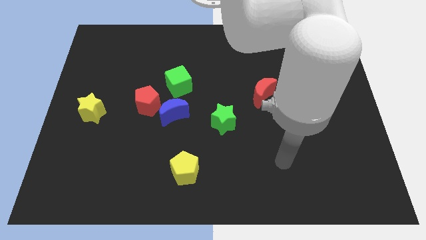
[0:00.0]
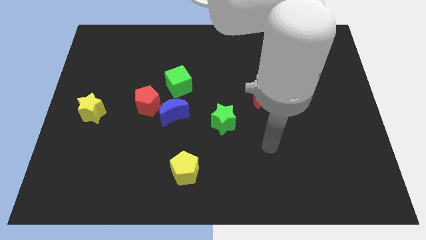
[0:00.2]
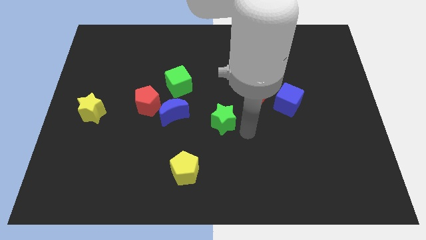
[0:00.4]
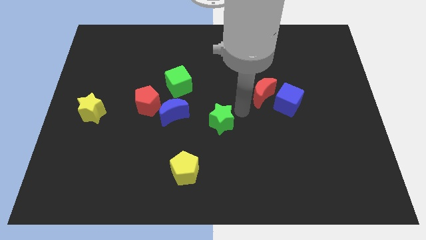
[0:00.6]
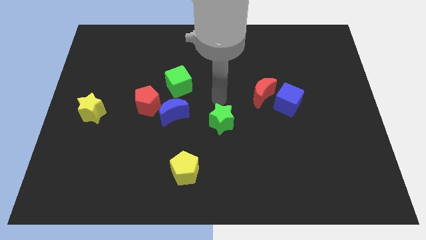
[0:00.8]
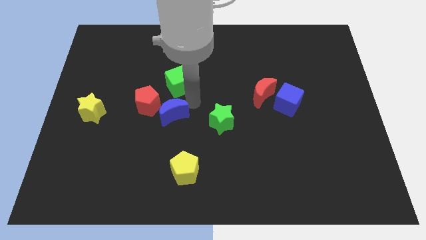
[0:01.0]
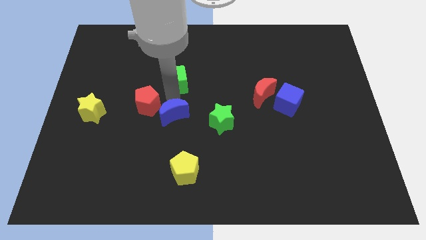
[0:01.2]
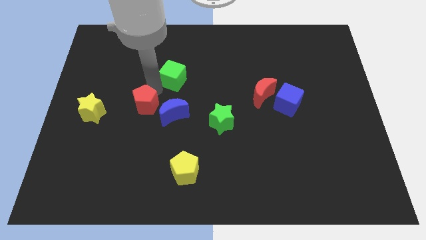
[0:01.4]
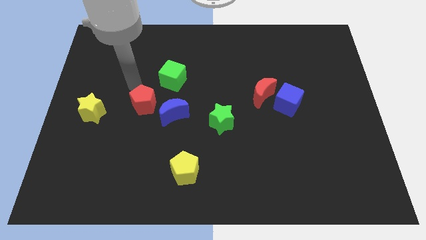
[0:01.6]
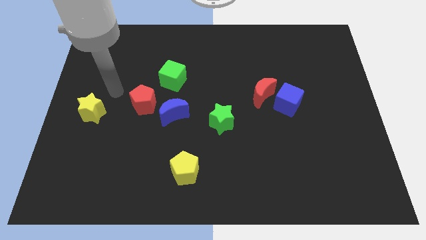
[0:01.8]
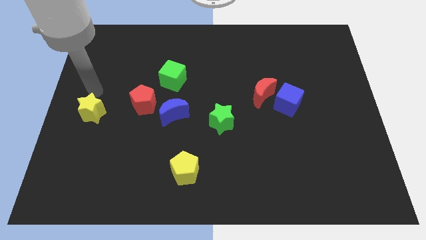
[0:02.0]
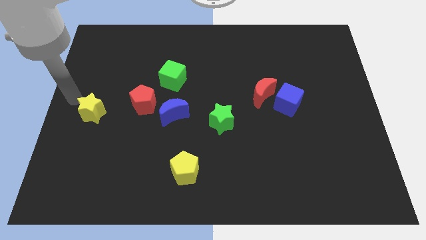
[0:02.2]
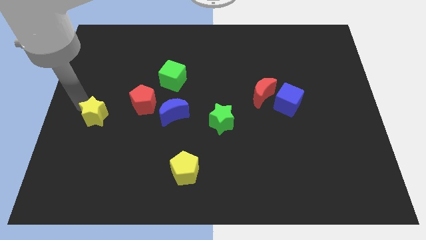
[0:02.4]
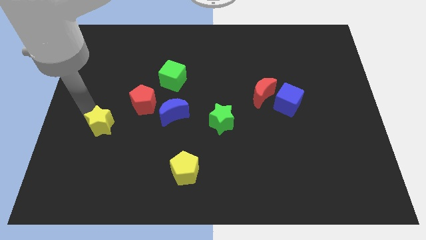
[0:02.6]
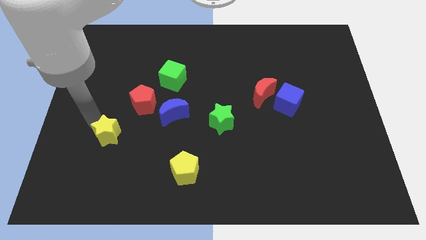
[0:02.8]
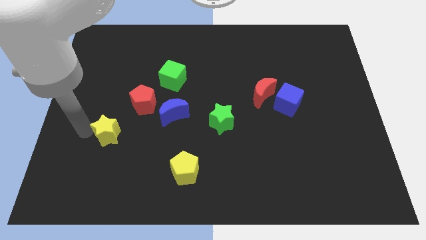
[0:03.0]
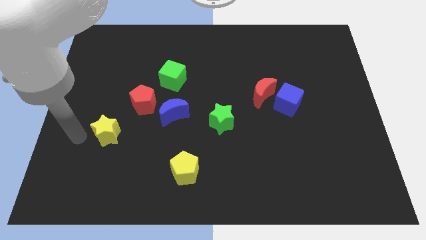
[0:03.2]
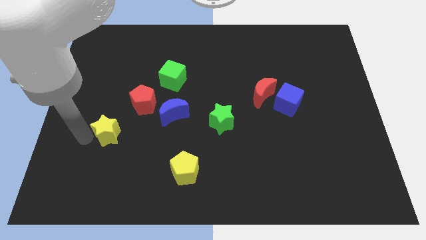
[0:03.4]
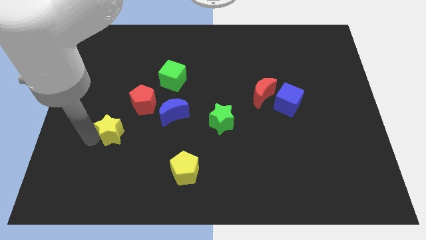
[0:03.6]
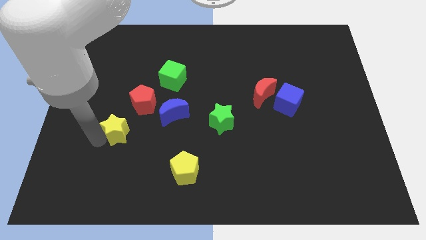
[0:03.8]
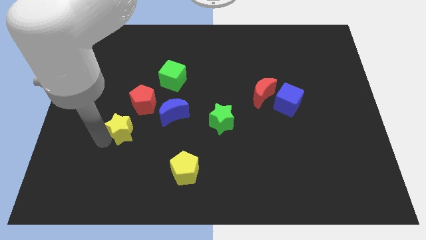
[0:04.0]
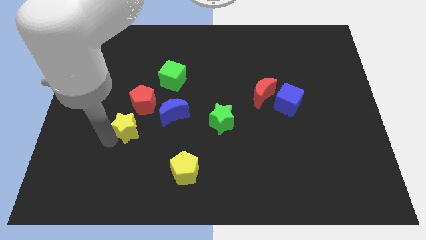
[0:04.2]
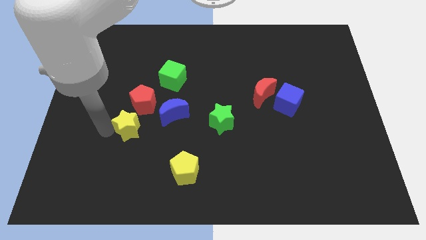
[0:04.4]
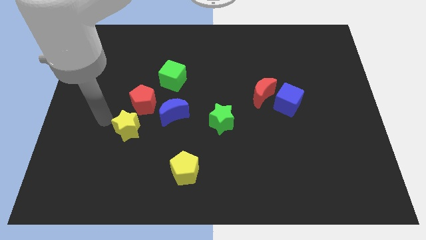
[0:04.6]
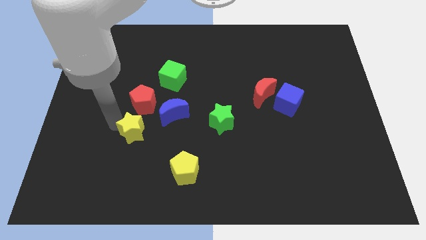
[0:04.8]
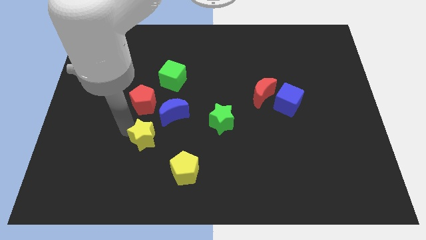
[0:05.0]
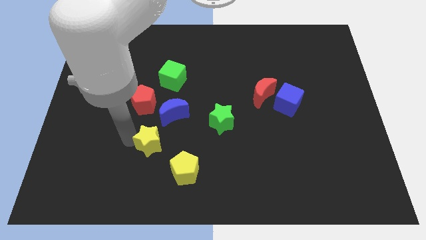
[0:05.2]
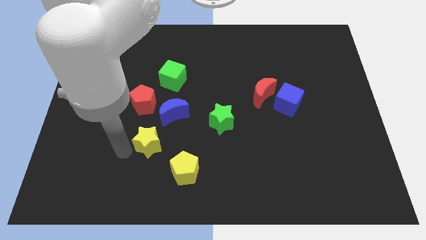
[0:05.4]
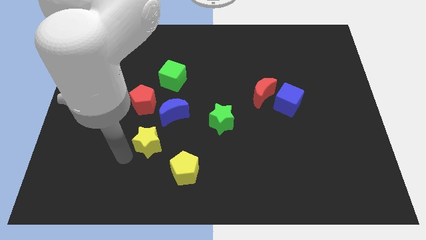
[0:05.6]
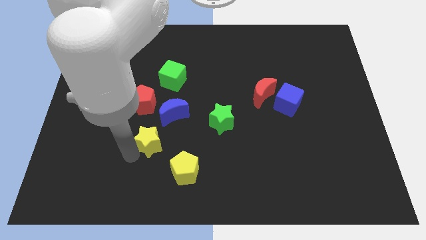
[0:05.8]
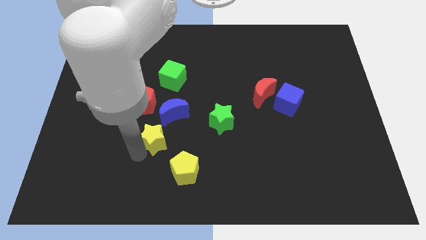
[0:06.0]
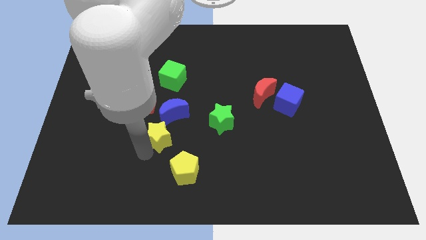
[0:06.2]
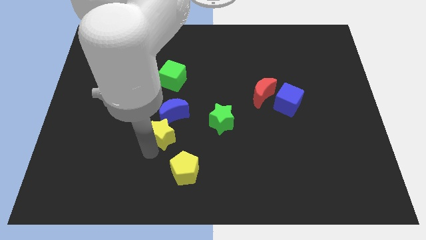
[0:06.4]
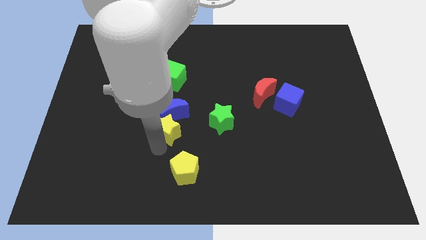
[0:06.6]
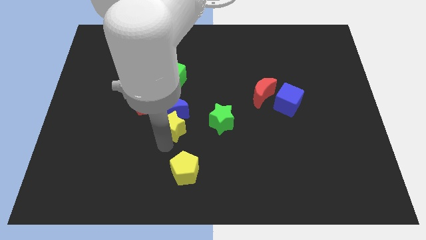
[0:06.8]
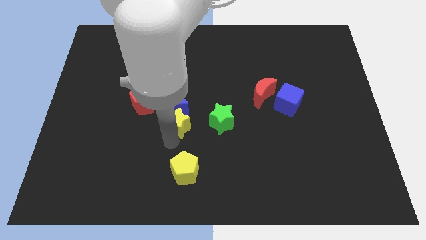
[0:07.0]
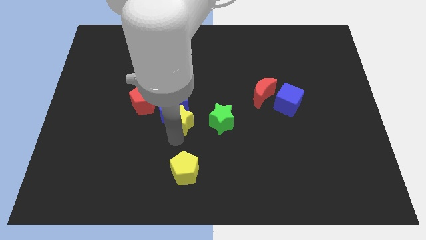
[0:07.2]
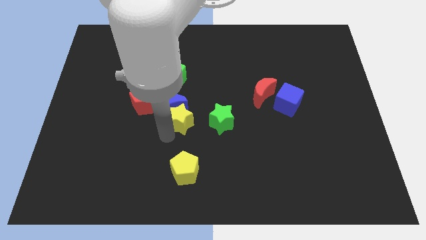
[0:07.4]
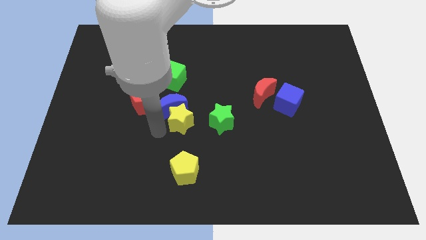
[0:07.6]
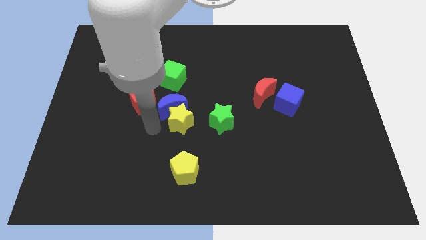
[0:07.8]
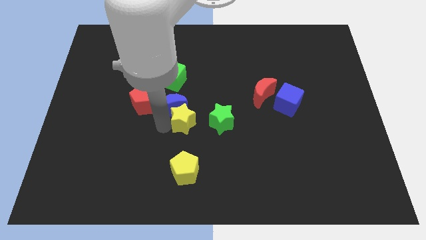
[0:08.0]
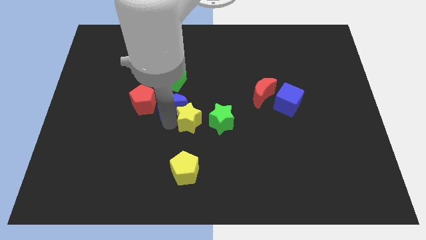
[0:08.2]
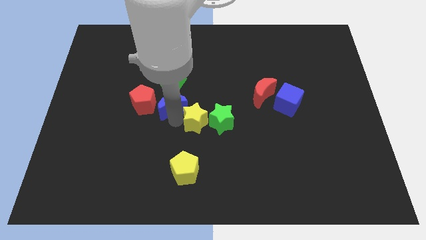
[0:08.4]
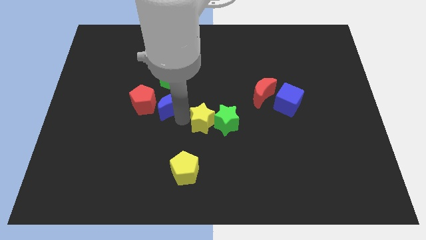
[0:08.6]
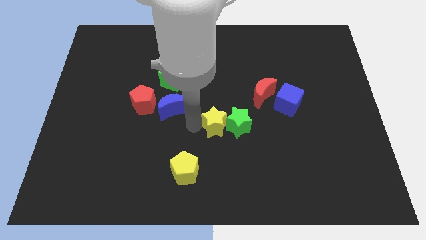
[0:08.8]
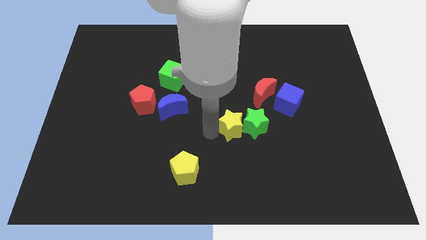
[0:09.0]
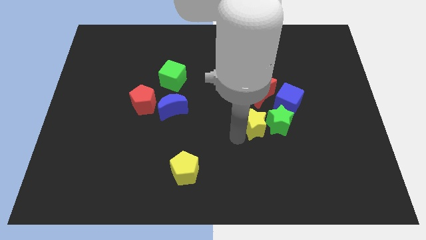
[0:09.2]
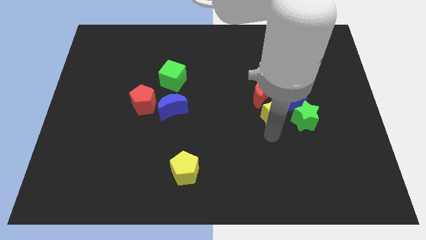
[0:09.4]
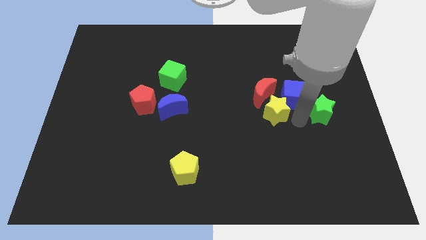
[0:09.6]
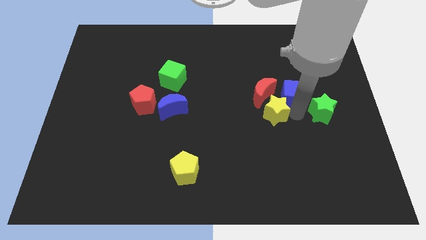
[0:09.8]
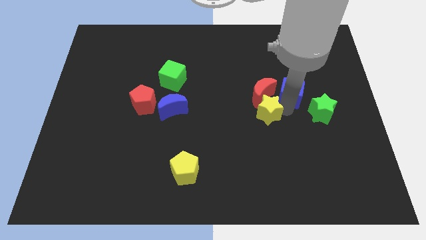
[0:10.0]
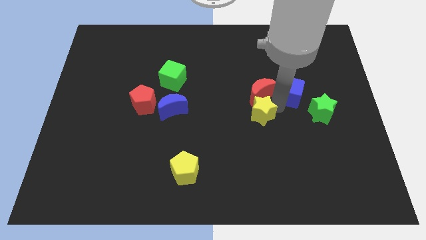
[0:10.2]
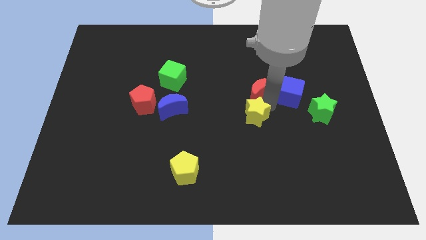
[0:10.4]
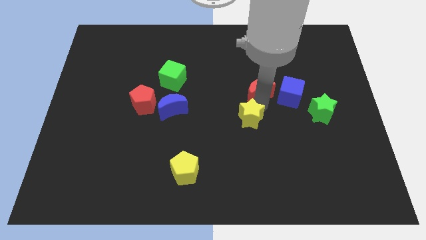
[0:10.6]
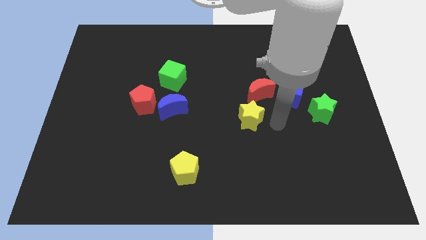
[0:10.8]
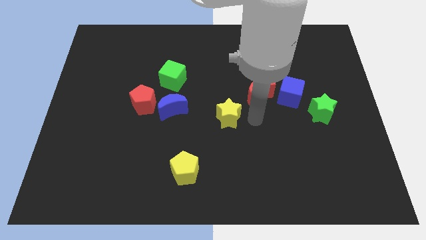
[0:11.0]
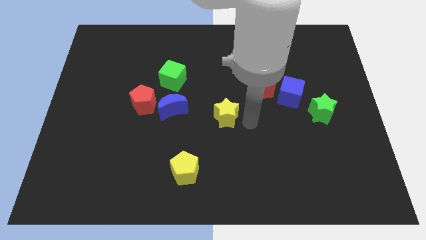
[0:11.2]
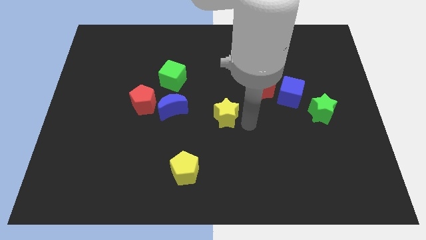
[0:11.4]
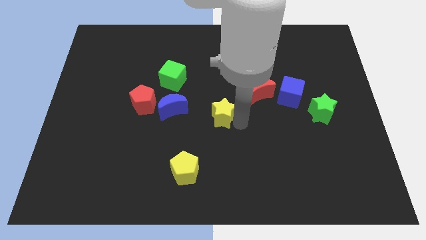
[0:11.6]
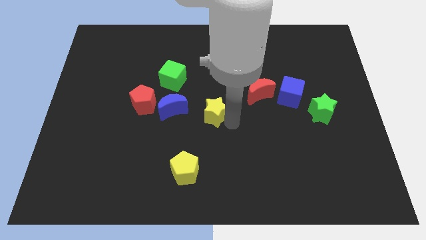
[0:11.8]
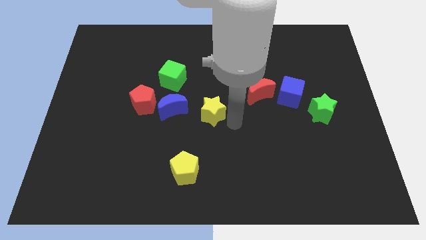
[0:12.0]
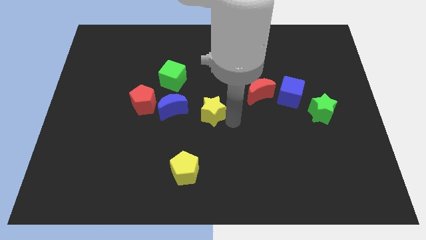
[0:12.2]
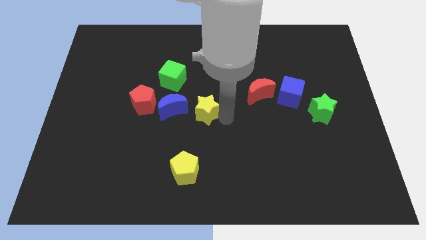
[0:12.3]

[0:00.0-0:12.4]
slide the yellow star to the right side of the red pentagon

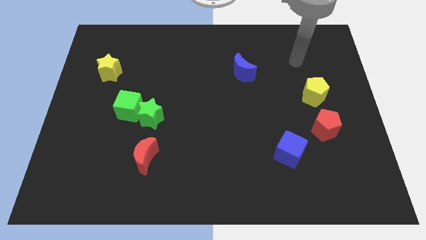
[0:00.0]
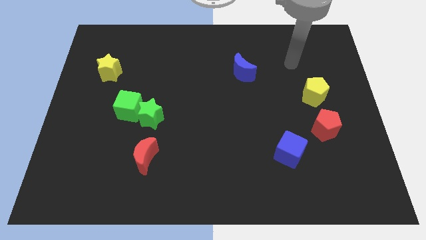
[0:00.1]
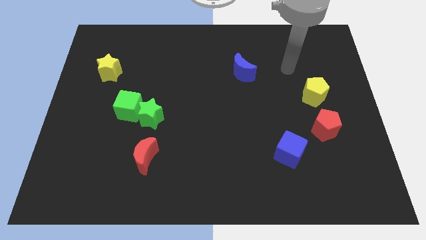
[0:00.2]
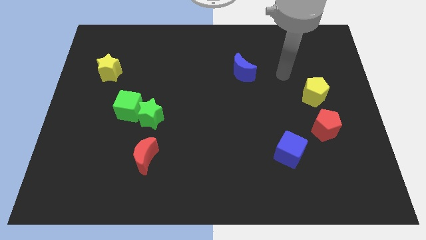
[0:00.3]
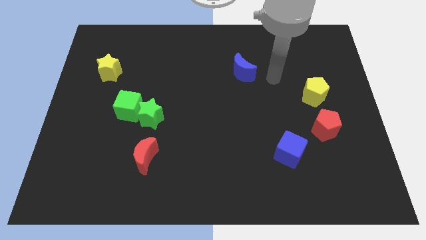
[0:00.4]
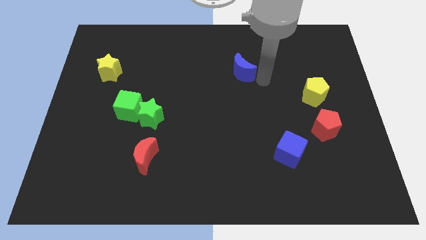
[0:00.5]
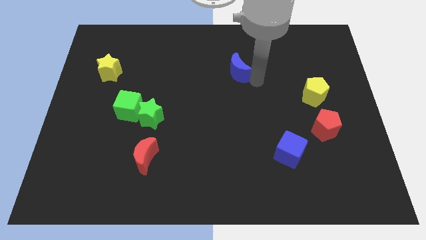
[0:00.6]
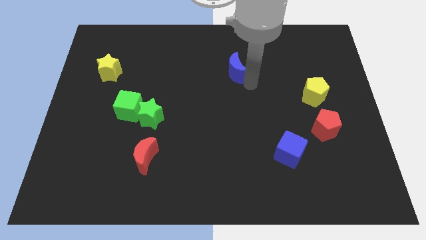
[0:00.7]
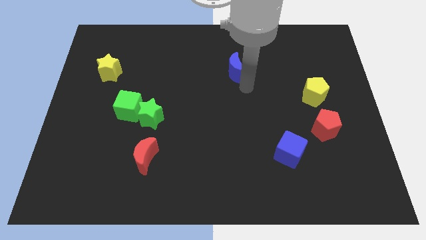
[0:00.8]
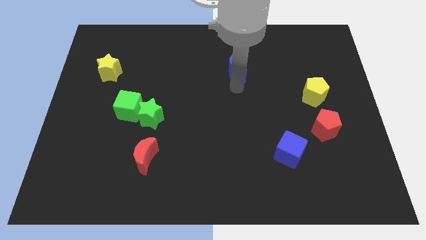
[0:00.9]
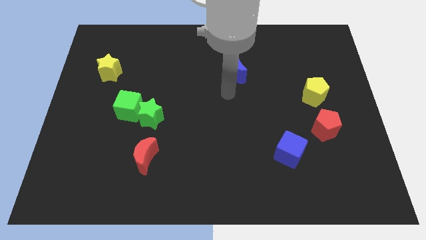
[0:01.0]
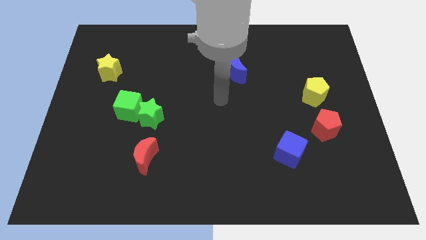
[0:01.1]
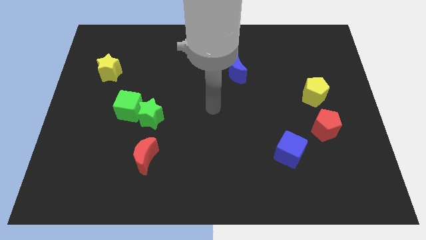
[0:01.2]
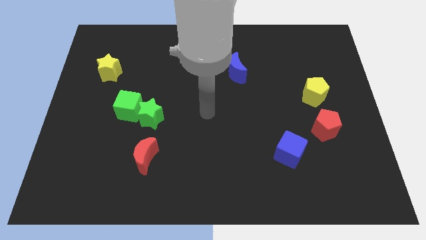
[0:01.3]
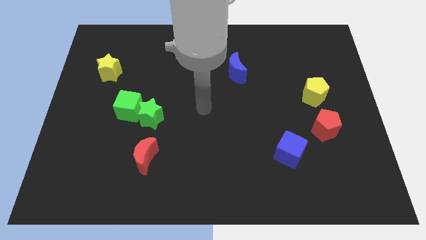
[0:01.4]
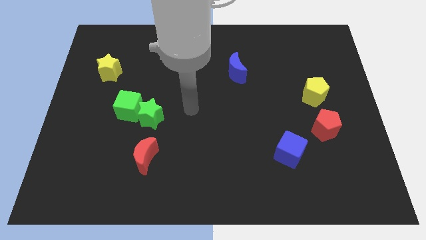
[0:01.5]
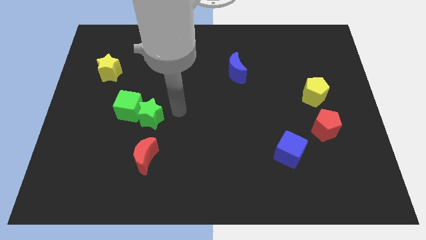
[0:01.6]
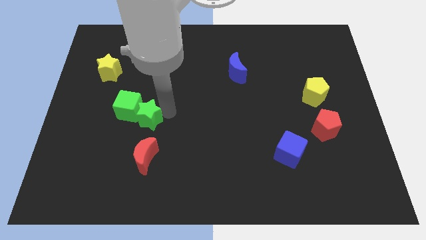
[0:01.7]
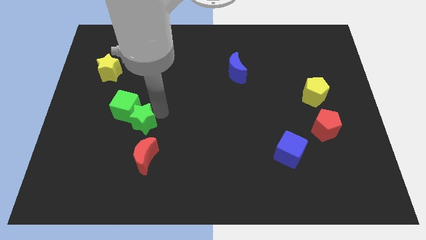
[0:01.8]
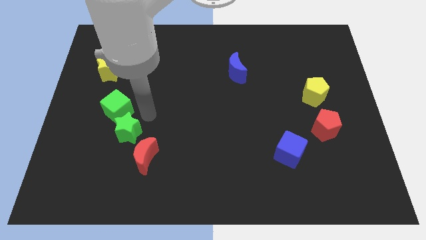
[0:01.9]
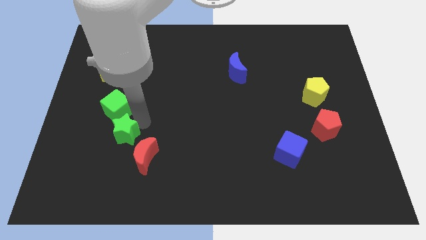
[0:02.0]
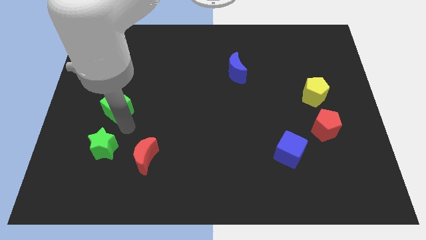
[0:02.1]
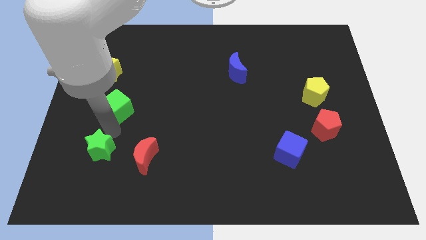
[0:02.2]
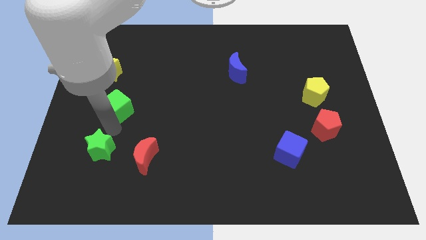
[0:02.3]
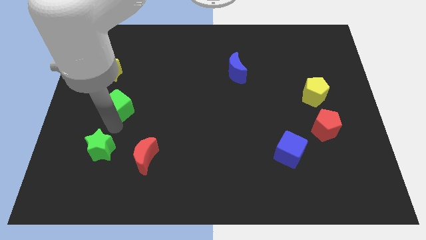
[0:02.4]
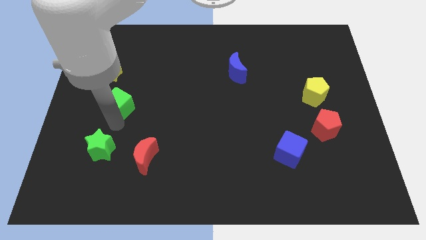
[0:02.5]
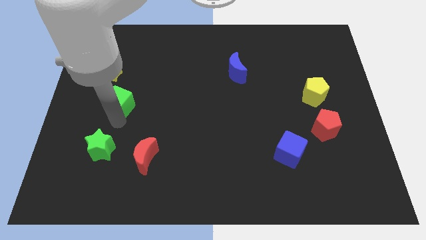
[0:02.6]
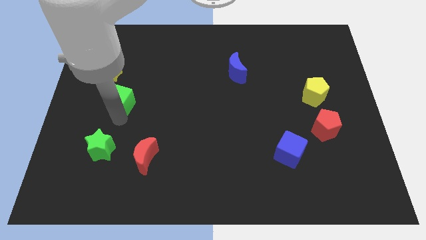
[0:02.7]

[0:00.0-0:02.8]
slide the green cube to the bottom right side of the yellow star
